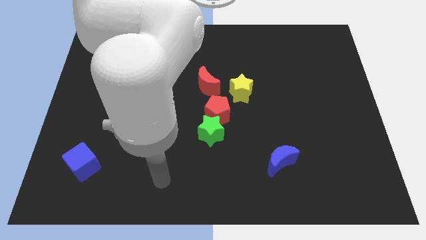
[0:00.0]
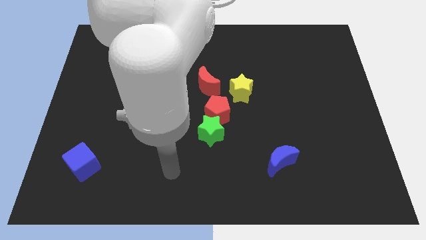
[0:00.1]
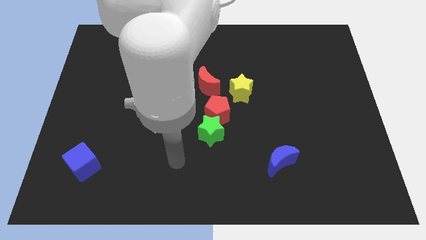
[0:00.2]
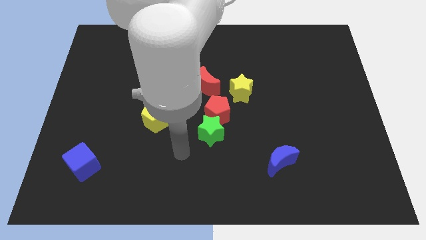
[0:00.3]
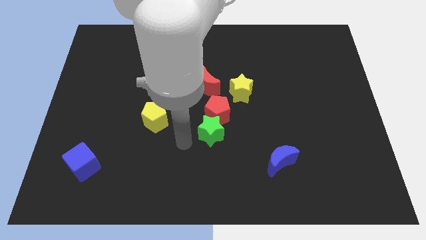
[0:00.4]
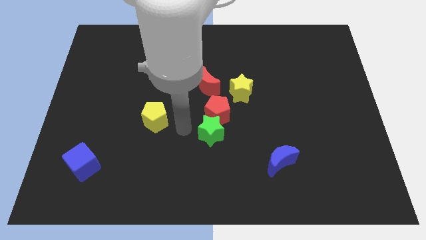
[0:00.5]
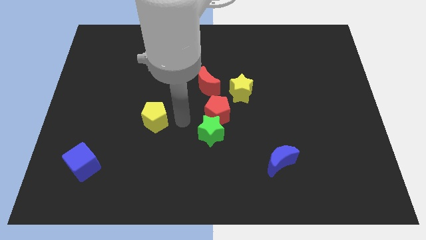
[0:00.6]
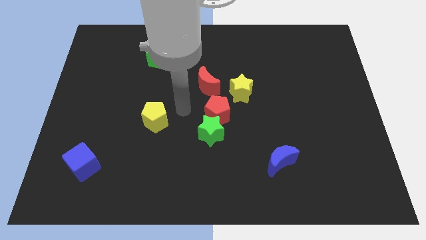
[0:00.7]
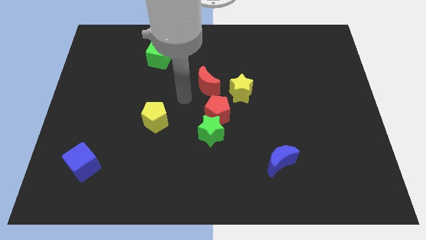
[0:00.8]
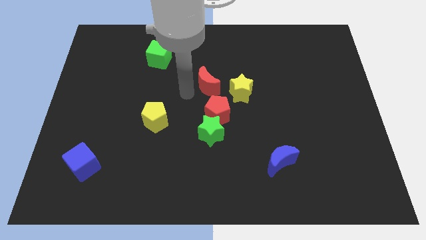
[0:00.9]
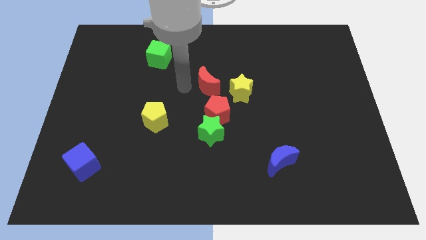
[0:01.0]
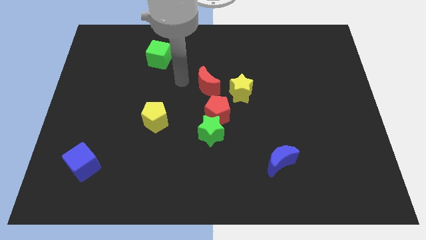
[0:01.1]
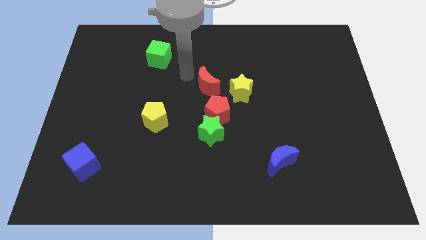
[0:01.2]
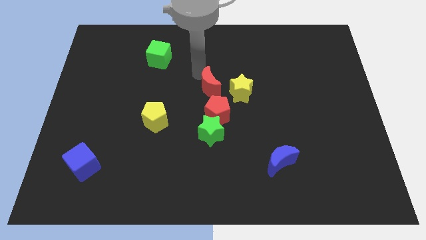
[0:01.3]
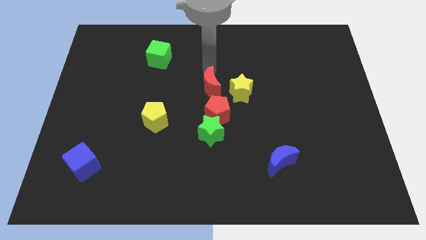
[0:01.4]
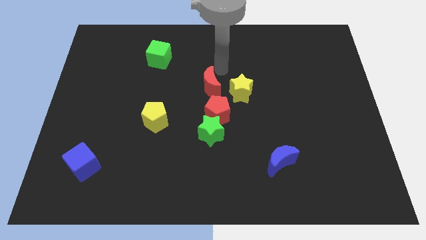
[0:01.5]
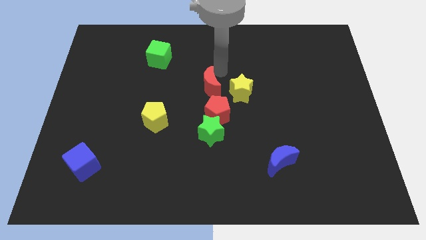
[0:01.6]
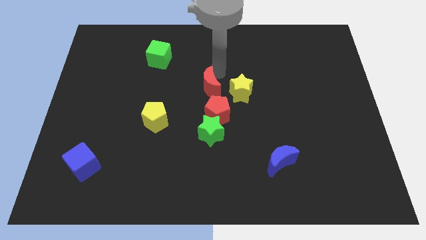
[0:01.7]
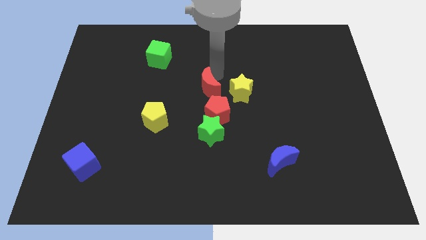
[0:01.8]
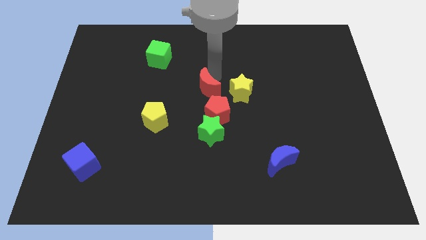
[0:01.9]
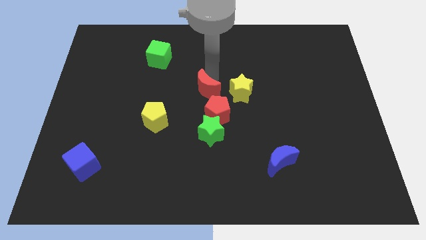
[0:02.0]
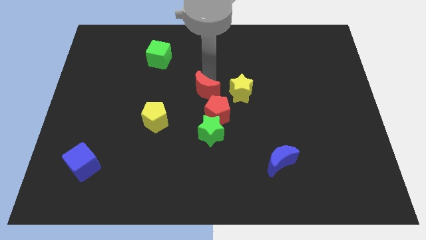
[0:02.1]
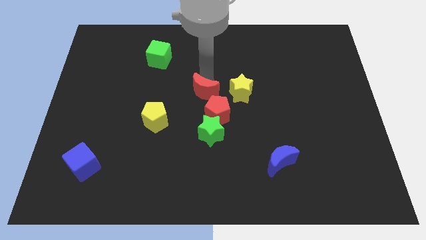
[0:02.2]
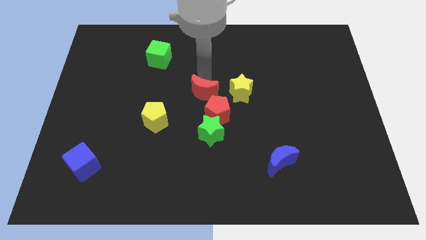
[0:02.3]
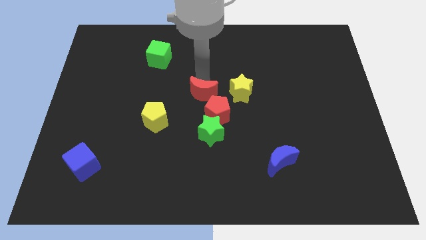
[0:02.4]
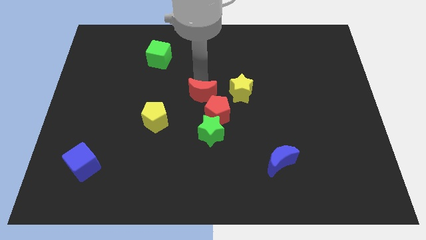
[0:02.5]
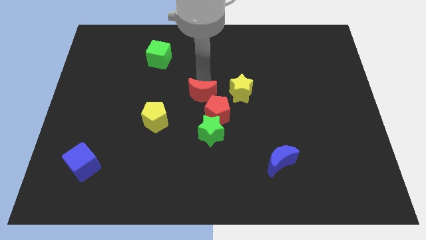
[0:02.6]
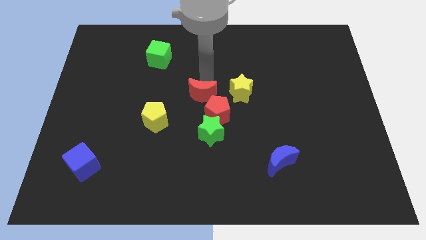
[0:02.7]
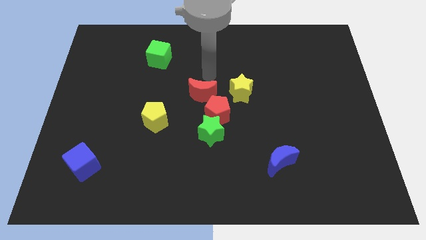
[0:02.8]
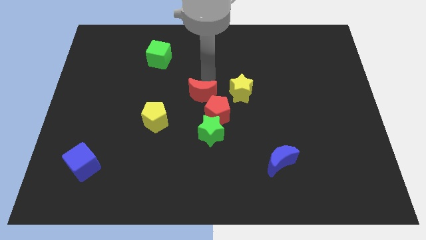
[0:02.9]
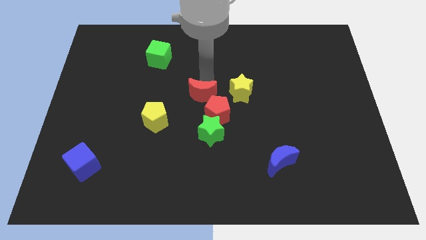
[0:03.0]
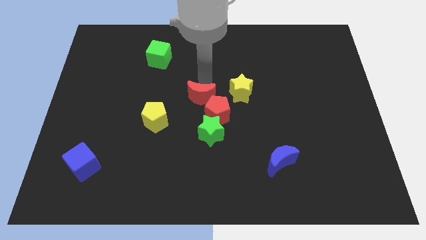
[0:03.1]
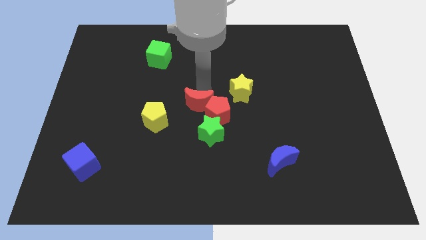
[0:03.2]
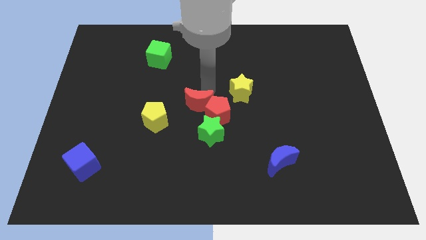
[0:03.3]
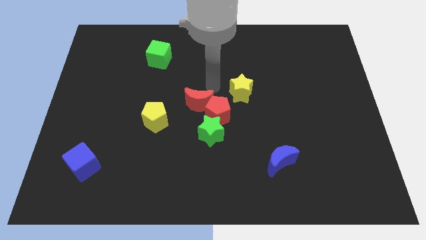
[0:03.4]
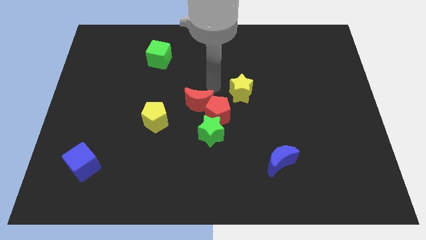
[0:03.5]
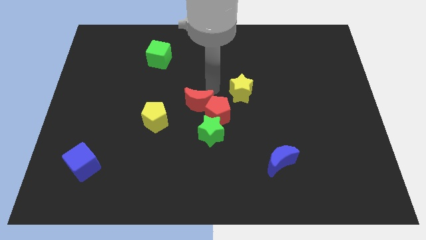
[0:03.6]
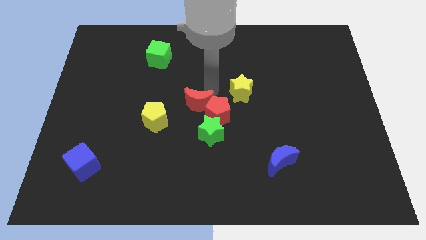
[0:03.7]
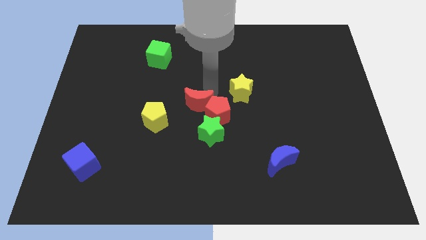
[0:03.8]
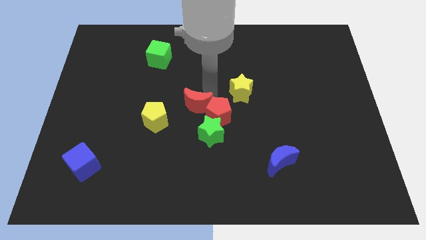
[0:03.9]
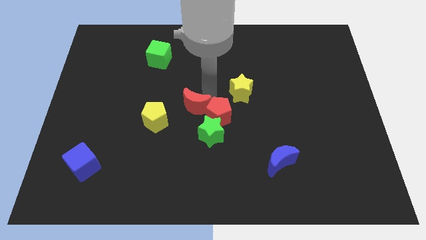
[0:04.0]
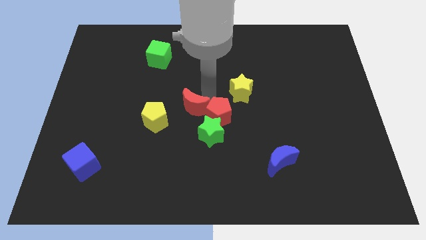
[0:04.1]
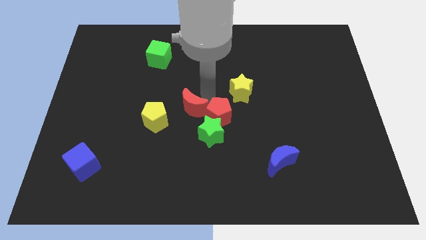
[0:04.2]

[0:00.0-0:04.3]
slightly slide the red moon downwards and left

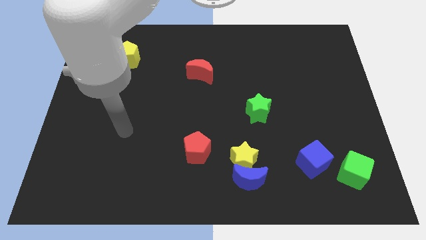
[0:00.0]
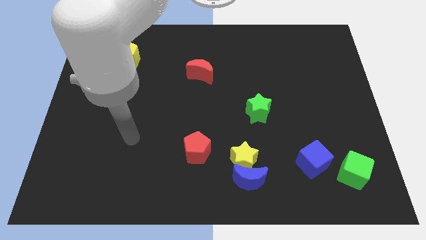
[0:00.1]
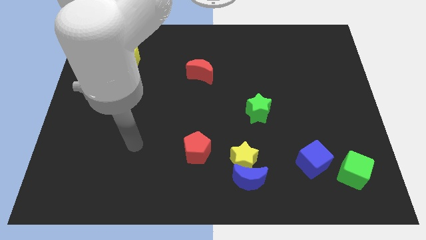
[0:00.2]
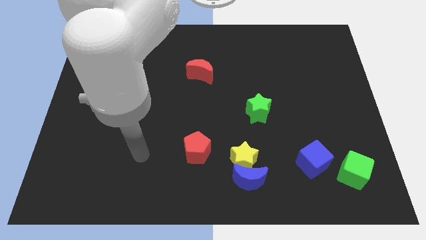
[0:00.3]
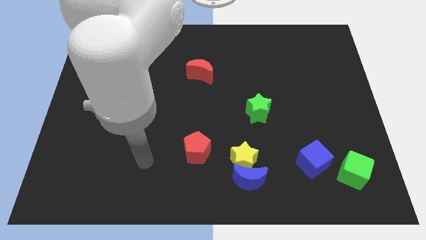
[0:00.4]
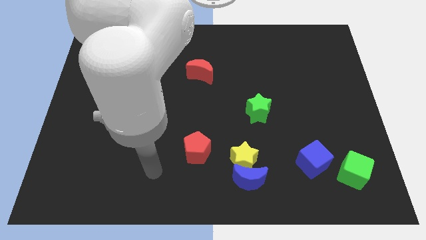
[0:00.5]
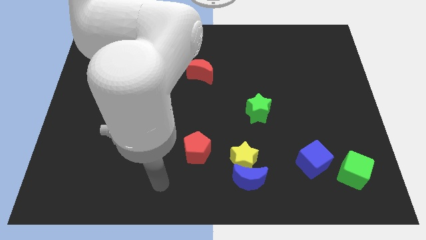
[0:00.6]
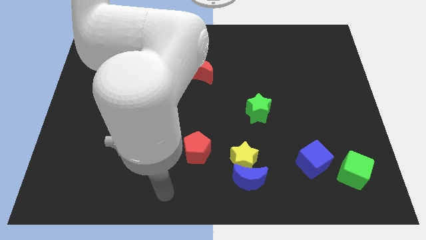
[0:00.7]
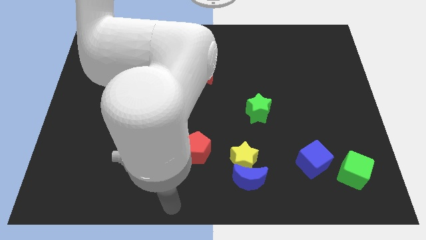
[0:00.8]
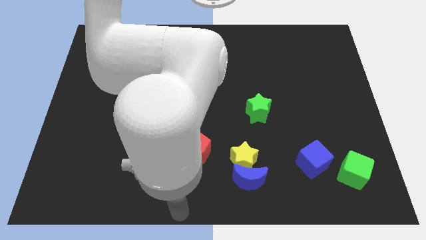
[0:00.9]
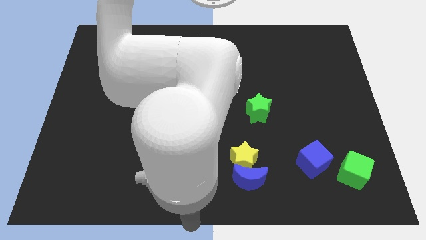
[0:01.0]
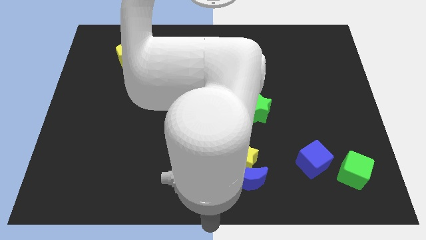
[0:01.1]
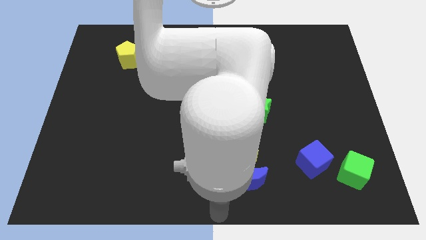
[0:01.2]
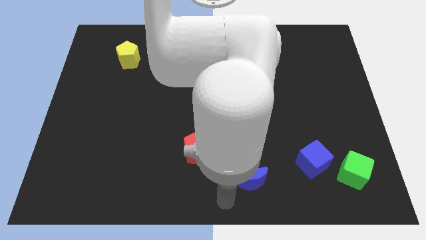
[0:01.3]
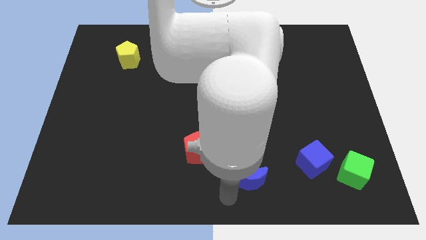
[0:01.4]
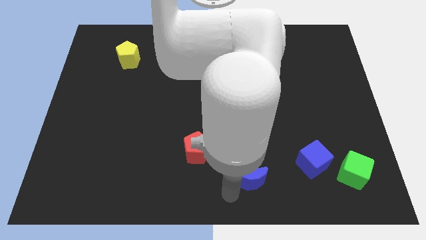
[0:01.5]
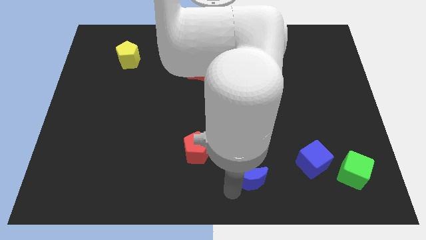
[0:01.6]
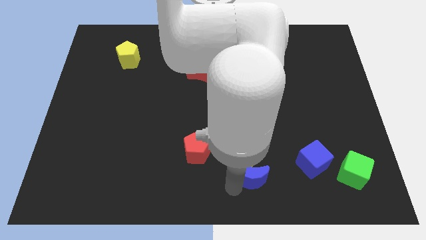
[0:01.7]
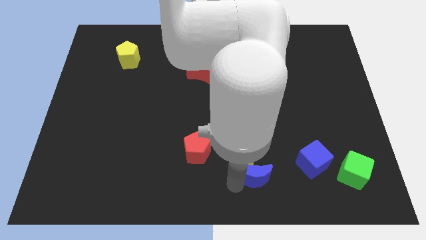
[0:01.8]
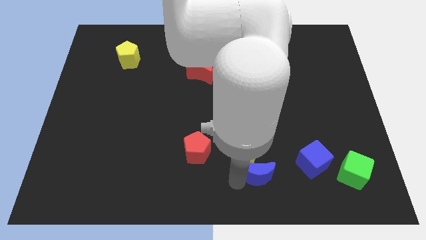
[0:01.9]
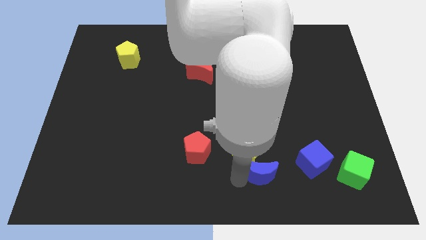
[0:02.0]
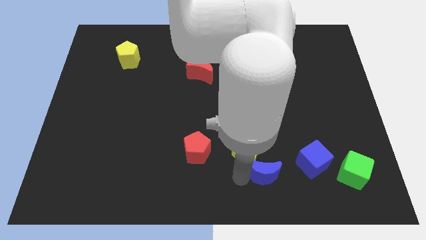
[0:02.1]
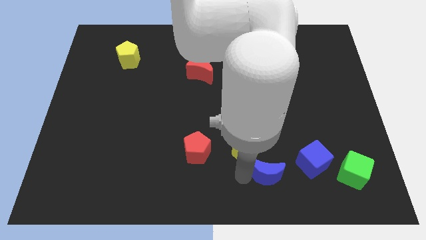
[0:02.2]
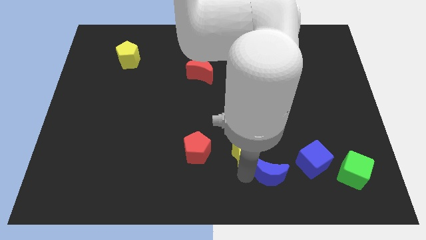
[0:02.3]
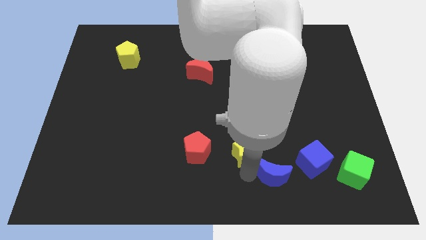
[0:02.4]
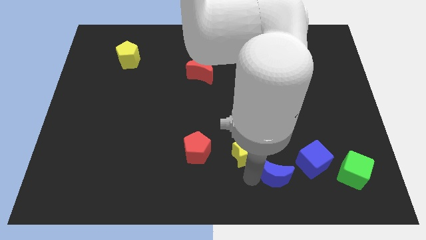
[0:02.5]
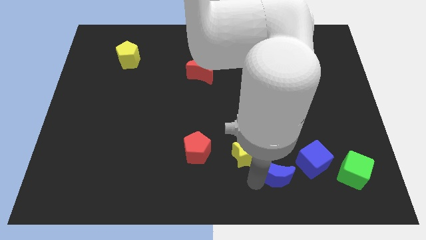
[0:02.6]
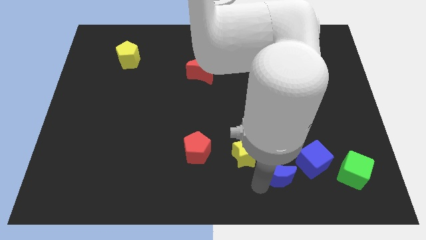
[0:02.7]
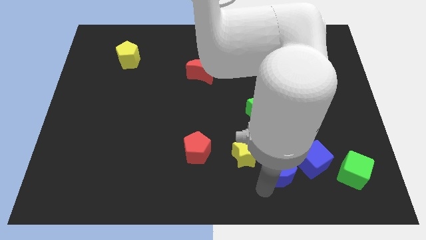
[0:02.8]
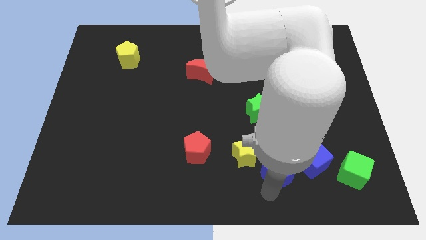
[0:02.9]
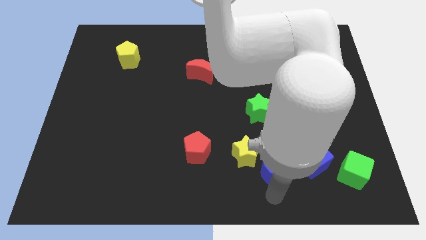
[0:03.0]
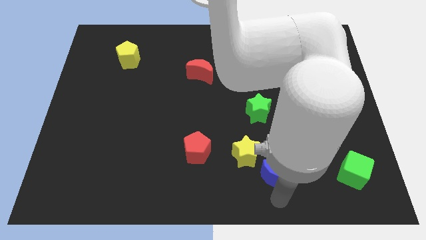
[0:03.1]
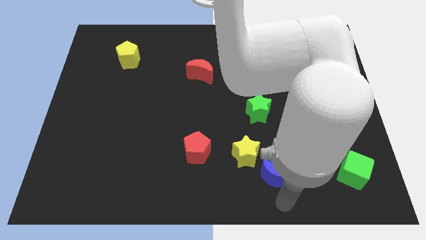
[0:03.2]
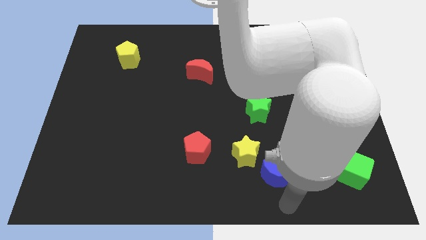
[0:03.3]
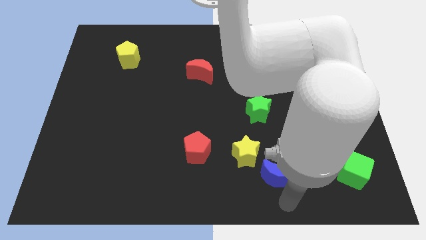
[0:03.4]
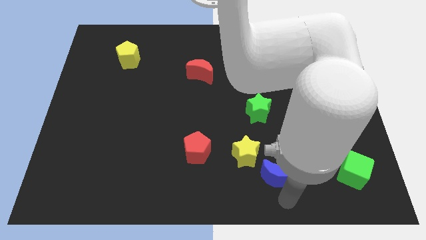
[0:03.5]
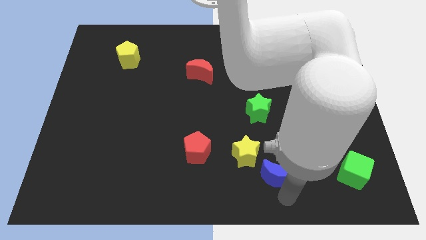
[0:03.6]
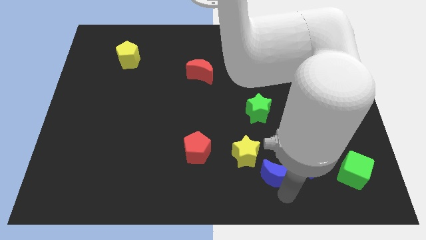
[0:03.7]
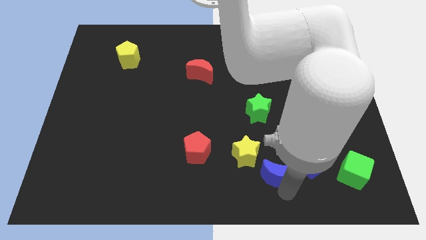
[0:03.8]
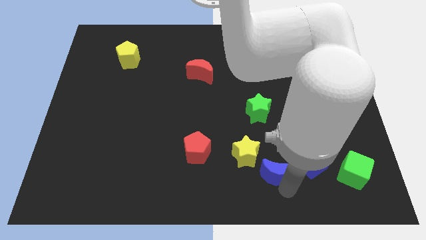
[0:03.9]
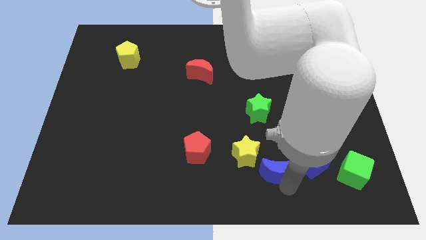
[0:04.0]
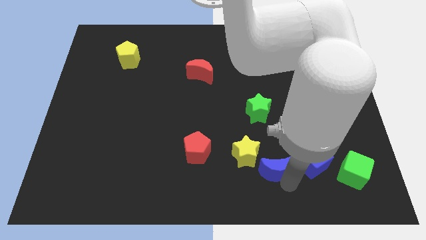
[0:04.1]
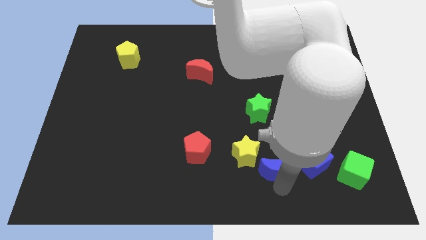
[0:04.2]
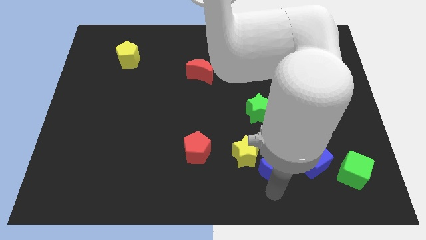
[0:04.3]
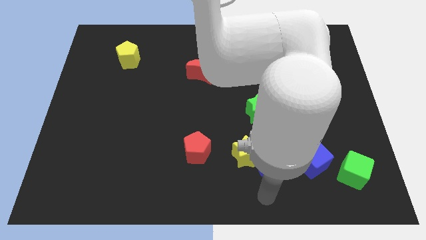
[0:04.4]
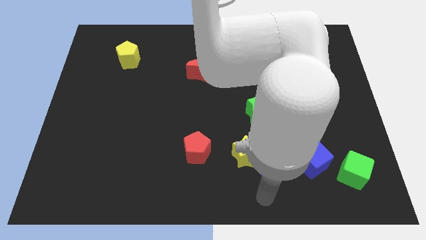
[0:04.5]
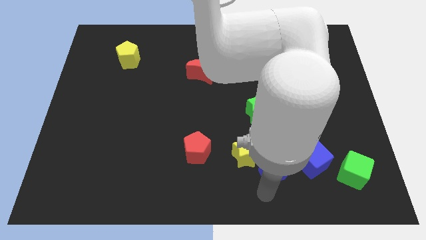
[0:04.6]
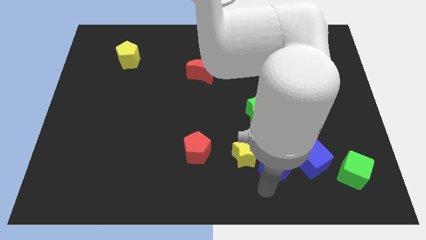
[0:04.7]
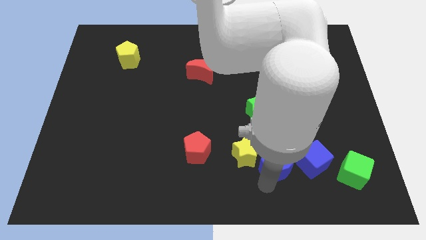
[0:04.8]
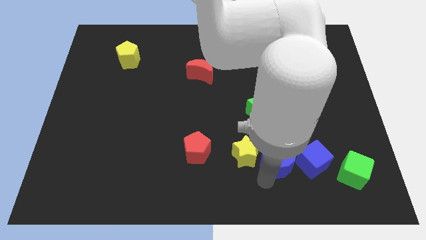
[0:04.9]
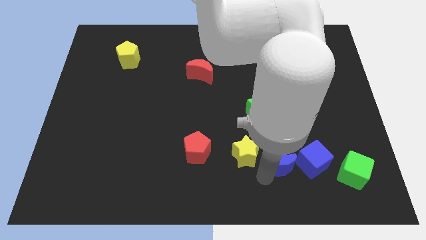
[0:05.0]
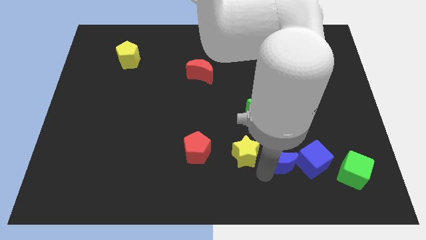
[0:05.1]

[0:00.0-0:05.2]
slightly push the blue moon up and right diagonally
